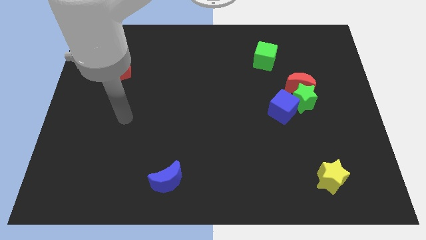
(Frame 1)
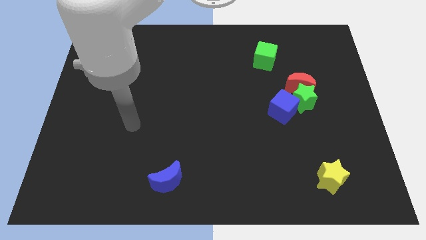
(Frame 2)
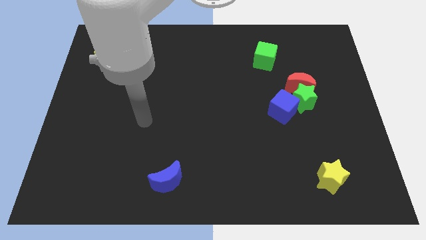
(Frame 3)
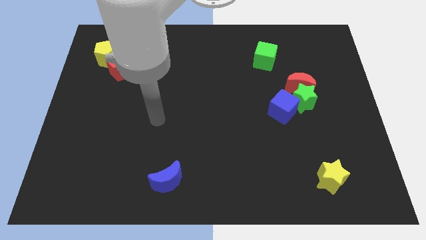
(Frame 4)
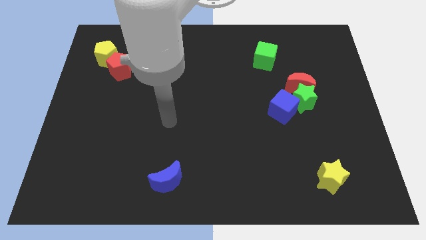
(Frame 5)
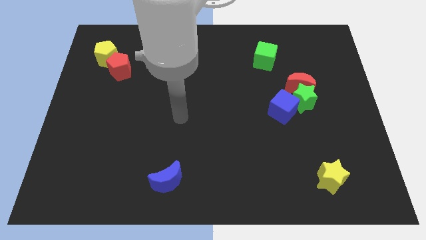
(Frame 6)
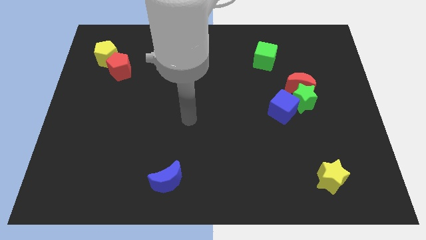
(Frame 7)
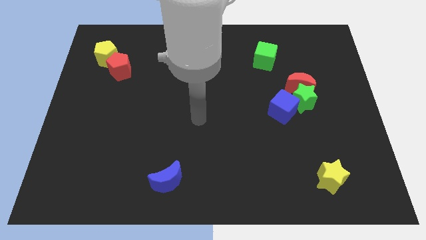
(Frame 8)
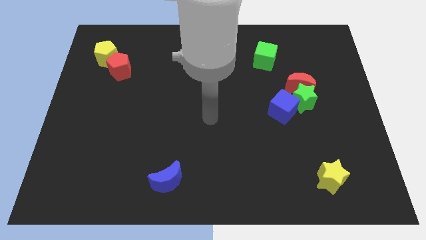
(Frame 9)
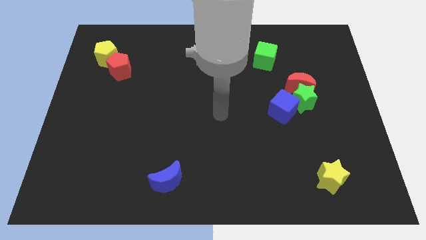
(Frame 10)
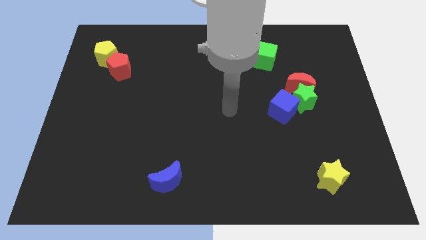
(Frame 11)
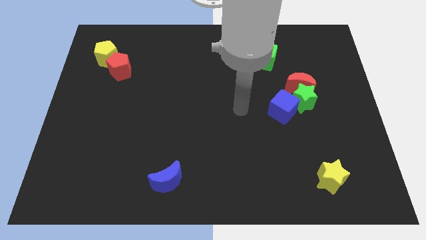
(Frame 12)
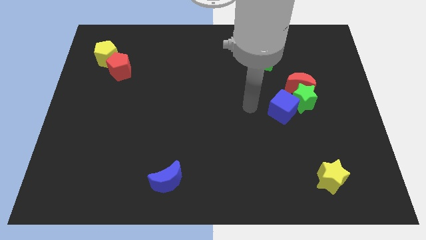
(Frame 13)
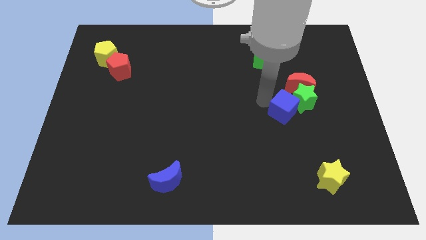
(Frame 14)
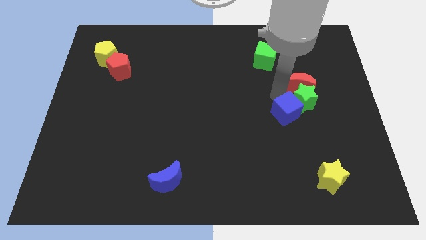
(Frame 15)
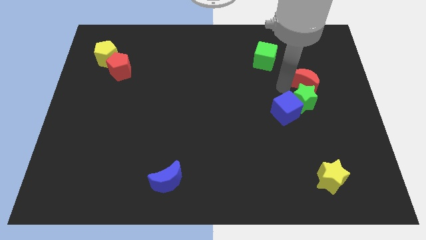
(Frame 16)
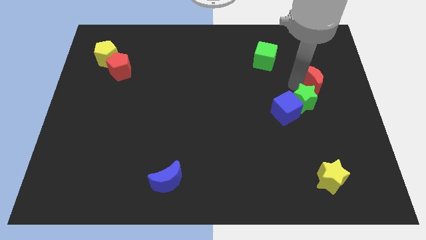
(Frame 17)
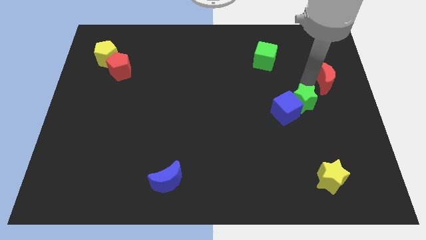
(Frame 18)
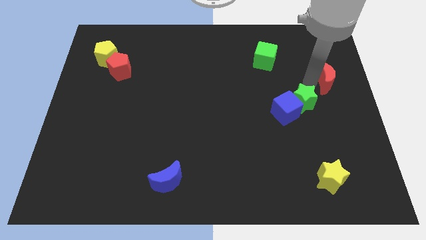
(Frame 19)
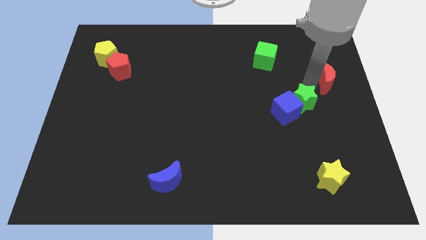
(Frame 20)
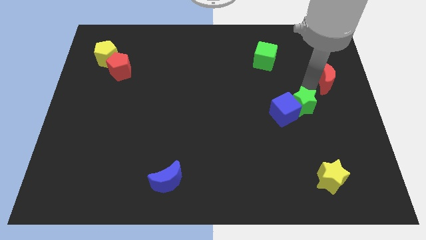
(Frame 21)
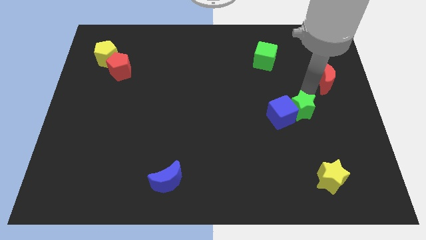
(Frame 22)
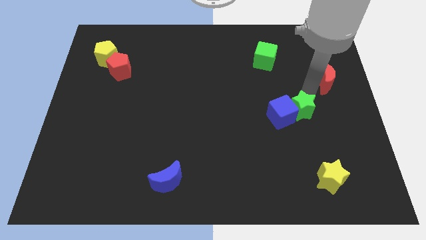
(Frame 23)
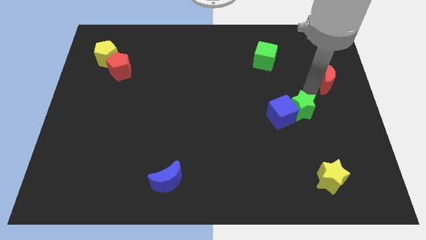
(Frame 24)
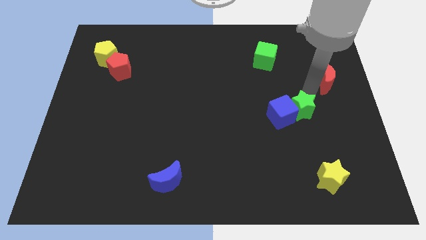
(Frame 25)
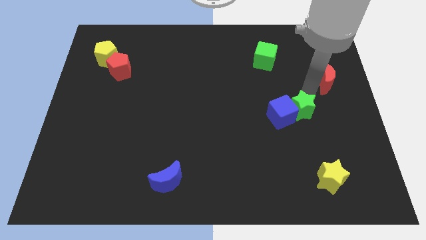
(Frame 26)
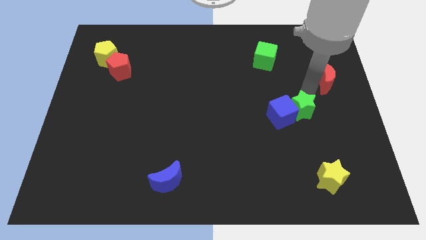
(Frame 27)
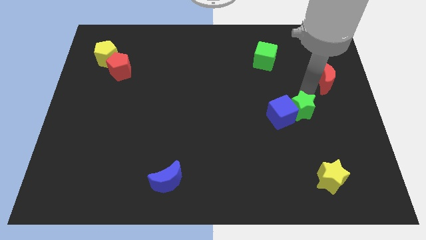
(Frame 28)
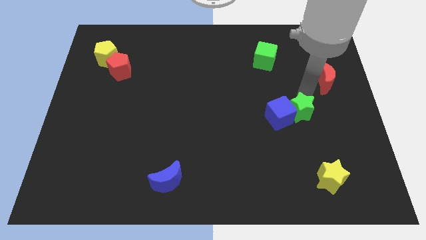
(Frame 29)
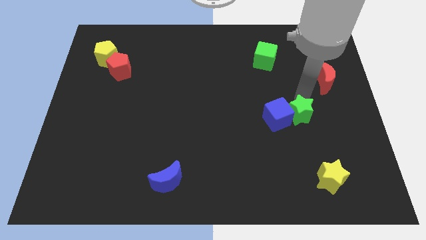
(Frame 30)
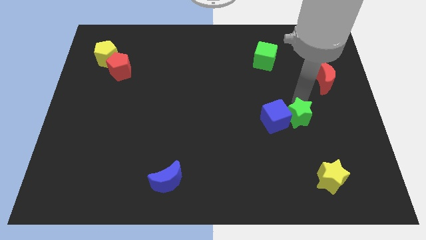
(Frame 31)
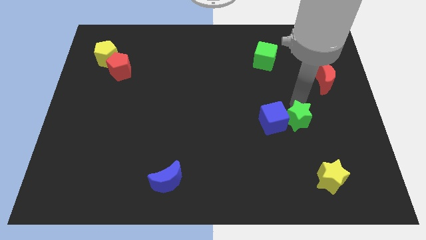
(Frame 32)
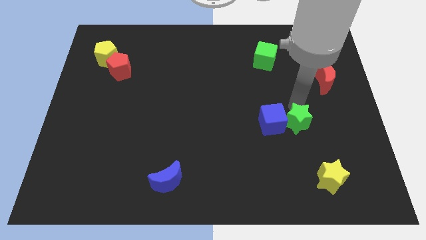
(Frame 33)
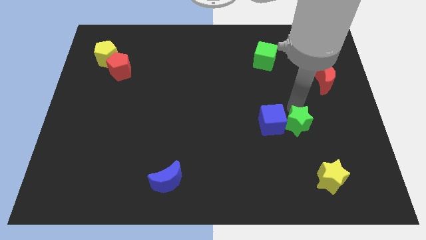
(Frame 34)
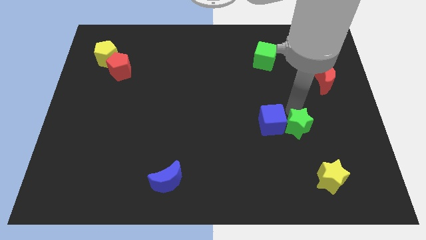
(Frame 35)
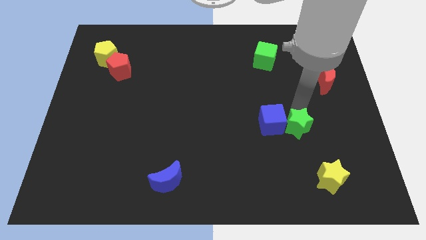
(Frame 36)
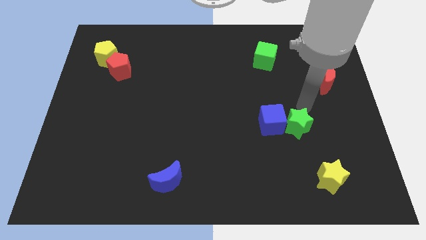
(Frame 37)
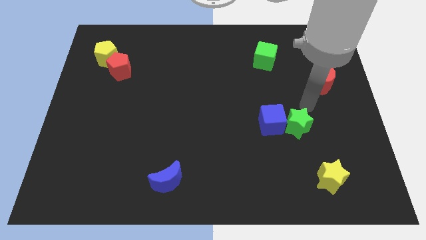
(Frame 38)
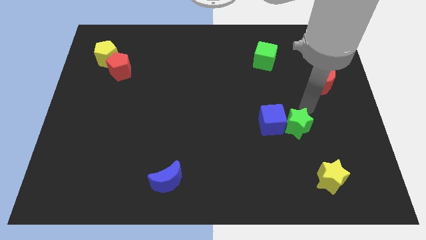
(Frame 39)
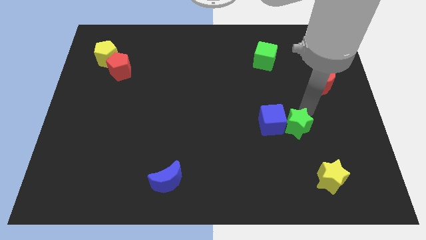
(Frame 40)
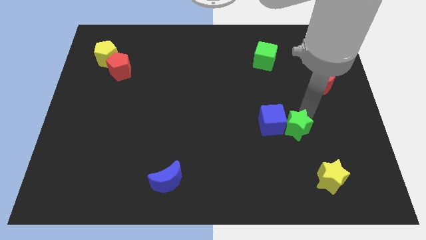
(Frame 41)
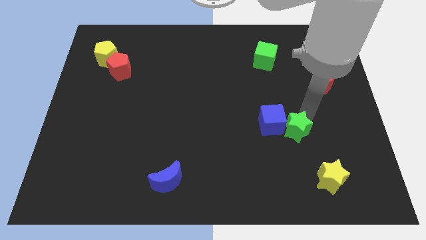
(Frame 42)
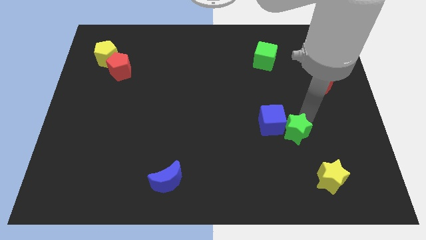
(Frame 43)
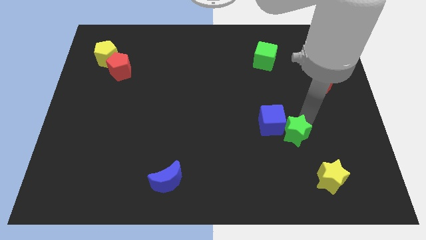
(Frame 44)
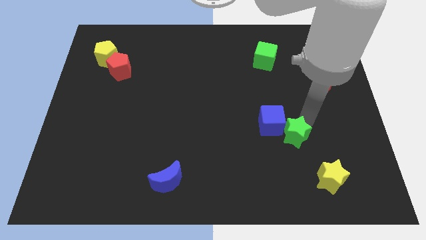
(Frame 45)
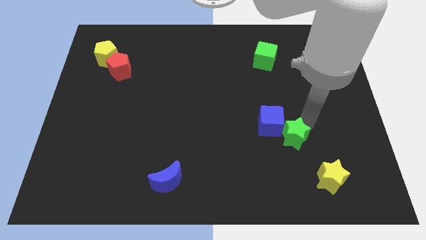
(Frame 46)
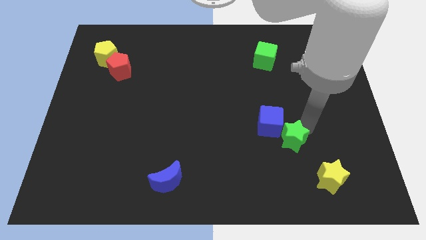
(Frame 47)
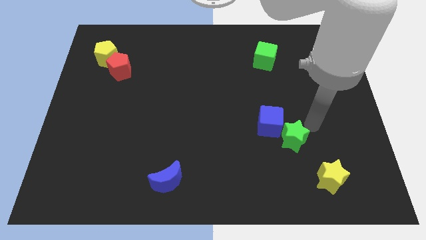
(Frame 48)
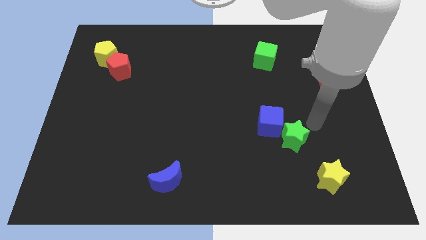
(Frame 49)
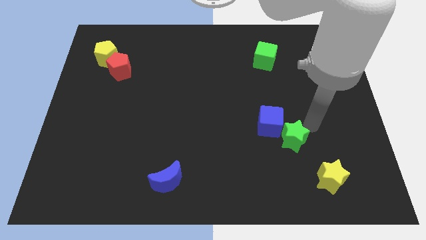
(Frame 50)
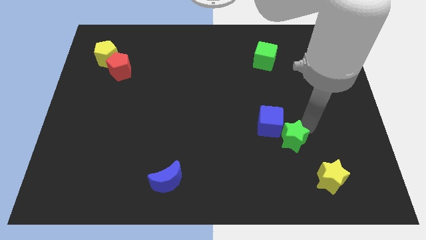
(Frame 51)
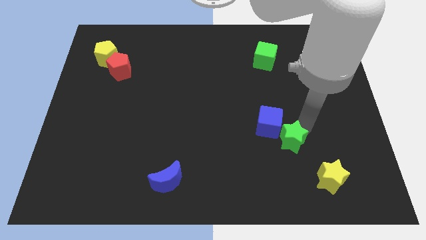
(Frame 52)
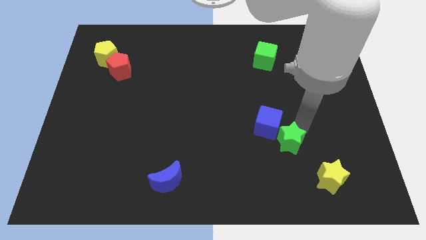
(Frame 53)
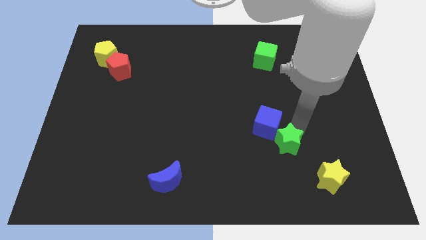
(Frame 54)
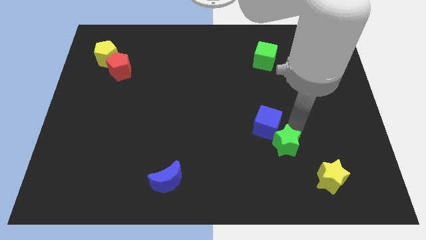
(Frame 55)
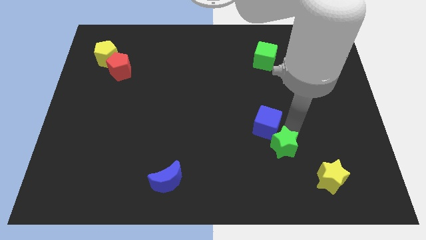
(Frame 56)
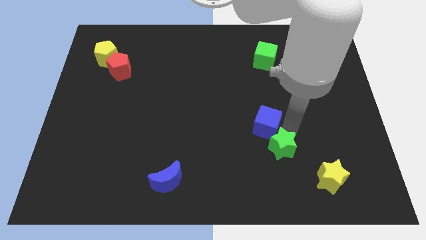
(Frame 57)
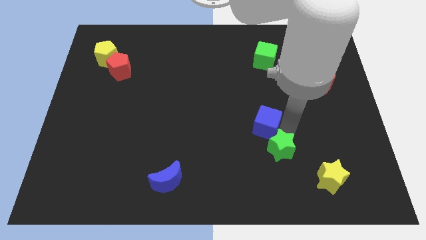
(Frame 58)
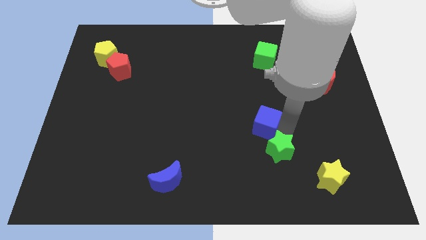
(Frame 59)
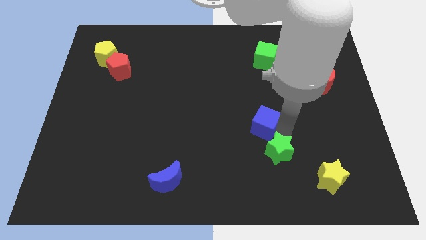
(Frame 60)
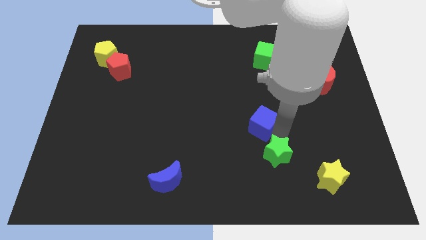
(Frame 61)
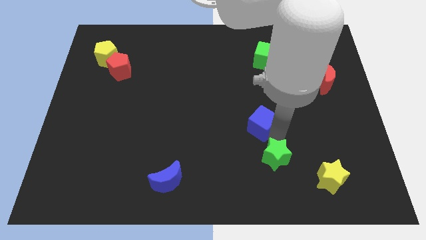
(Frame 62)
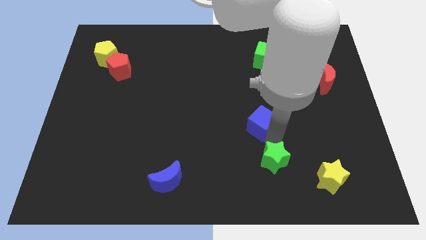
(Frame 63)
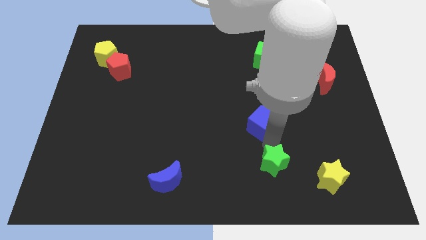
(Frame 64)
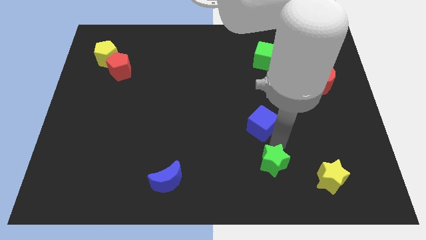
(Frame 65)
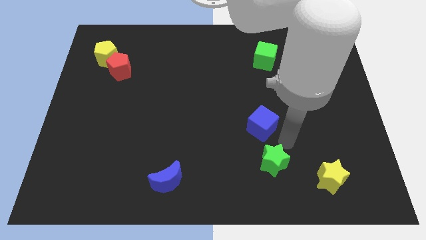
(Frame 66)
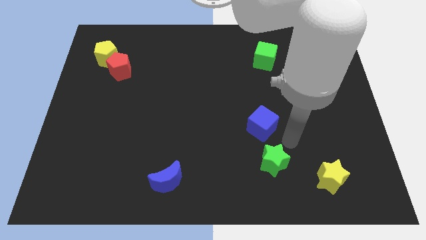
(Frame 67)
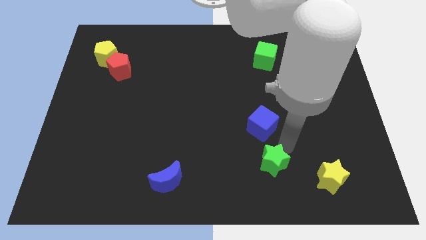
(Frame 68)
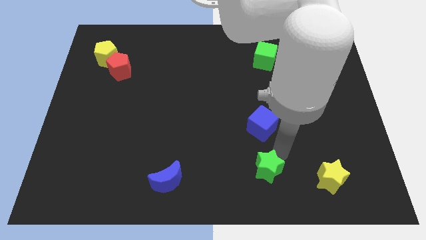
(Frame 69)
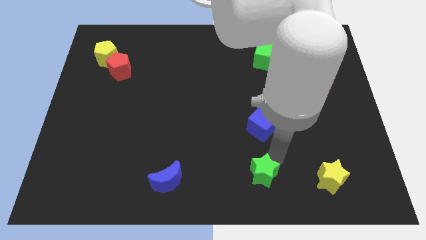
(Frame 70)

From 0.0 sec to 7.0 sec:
put the green star to the bottom side
